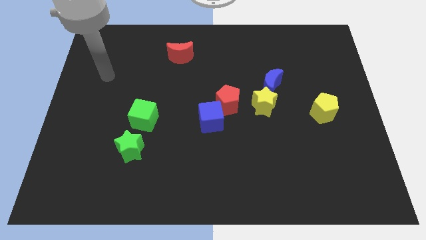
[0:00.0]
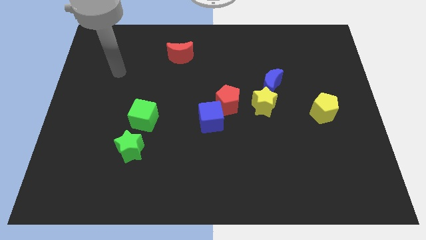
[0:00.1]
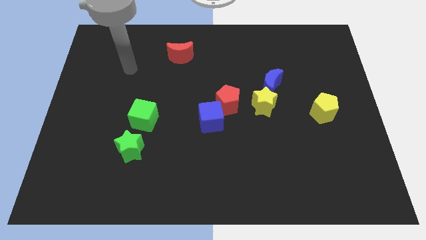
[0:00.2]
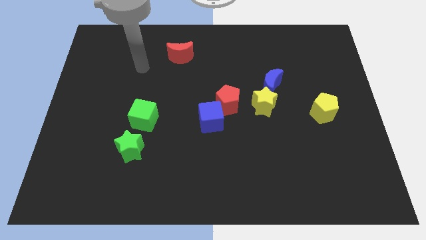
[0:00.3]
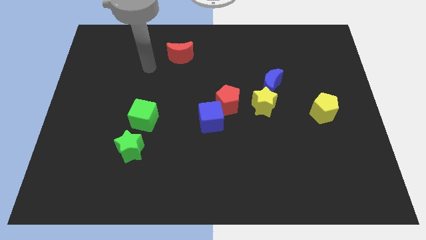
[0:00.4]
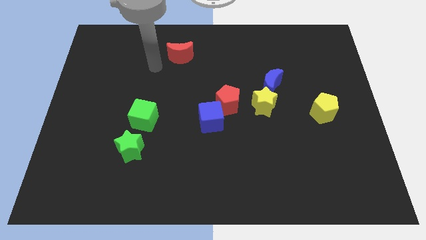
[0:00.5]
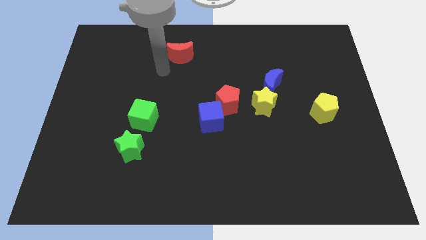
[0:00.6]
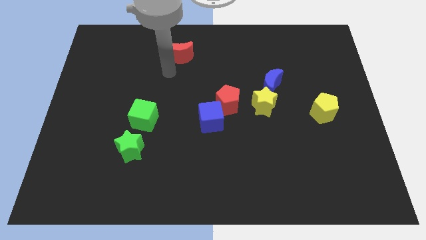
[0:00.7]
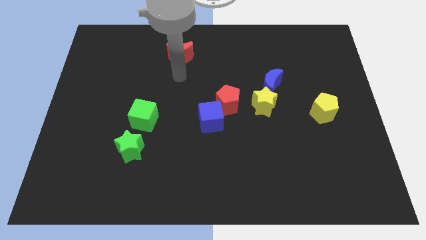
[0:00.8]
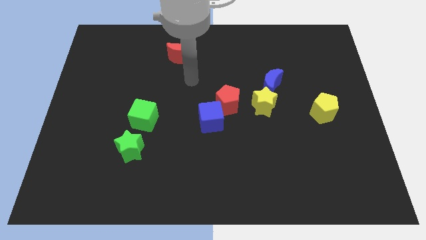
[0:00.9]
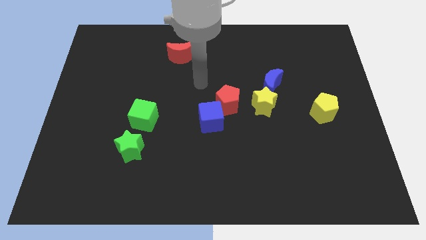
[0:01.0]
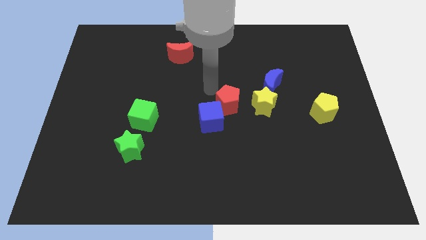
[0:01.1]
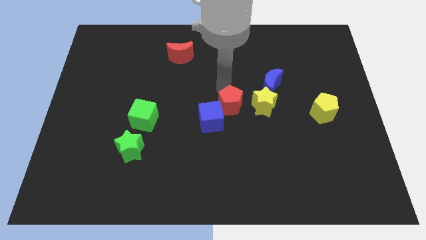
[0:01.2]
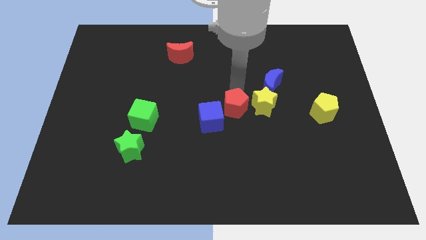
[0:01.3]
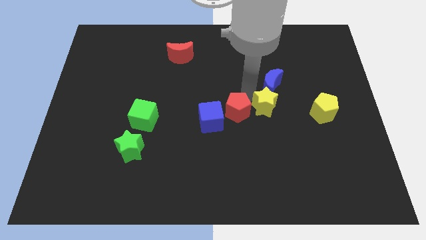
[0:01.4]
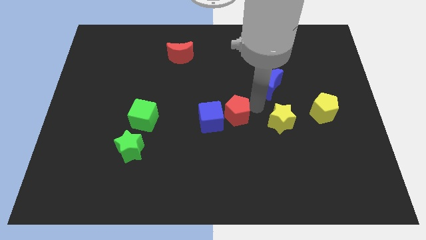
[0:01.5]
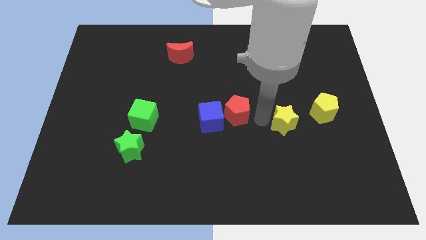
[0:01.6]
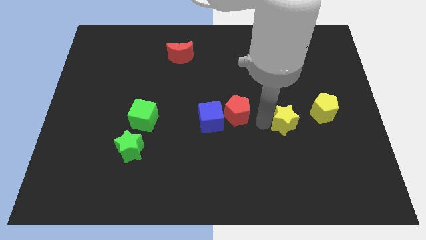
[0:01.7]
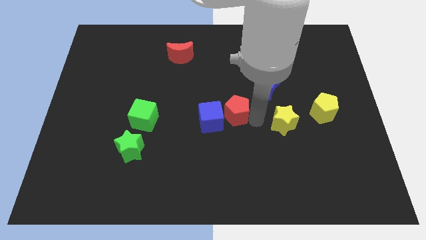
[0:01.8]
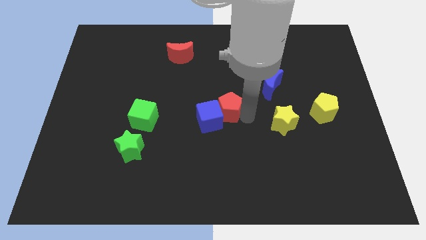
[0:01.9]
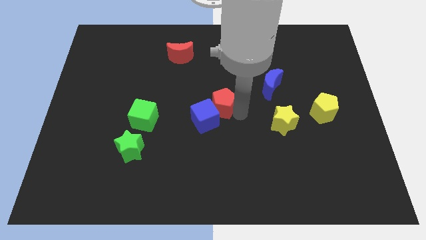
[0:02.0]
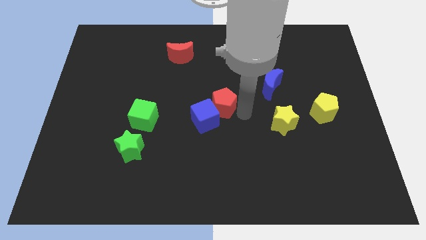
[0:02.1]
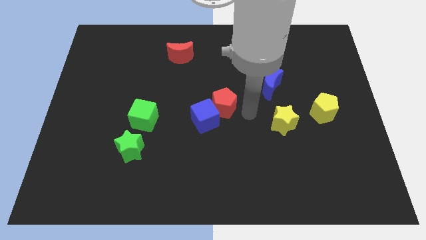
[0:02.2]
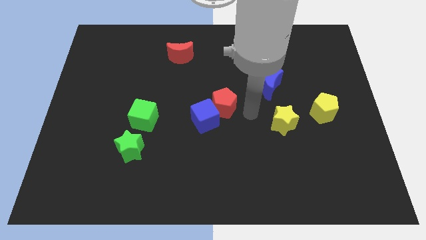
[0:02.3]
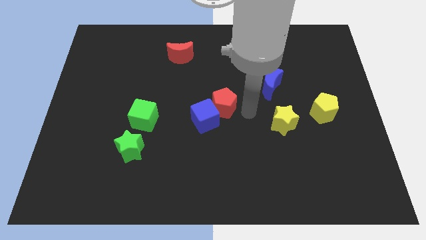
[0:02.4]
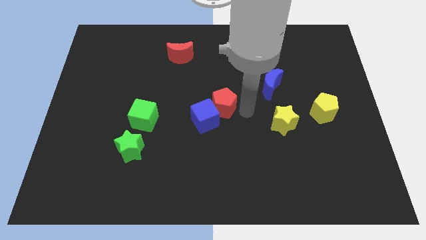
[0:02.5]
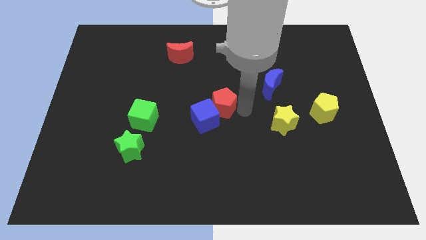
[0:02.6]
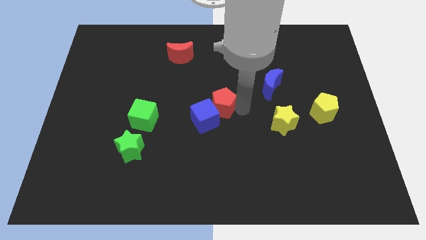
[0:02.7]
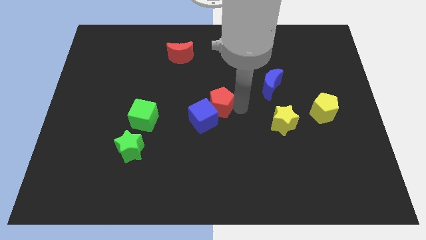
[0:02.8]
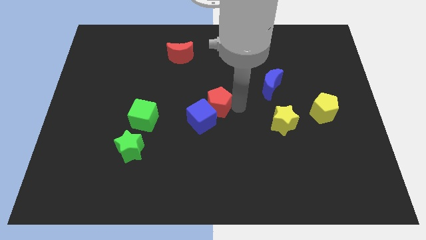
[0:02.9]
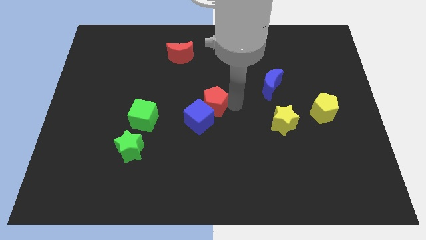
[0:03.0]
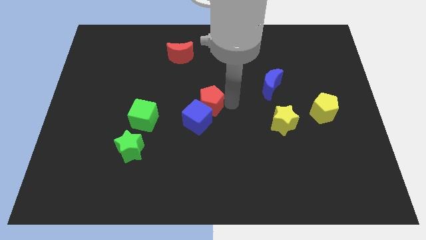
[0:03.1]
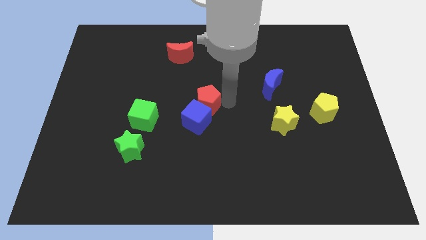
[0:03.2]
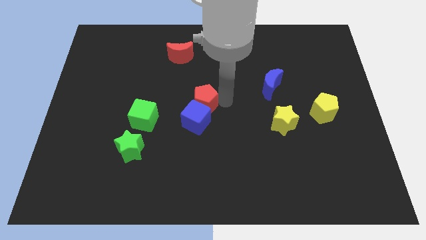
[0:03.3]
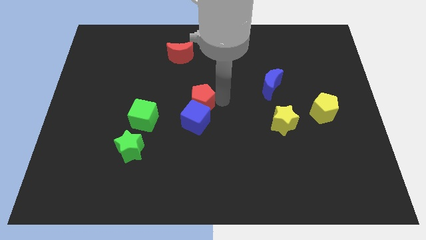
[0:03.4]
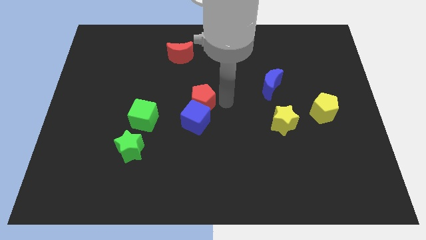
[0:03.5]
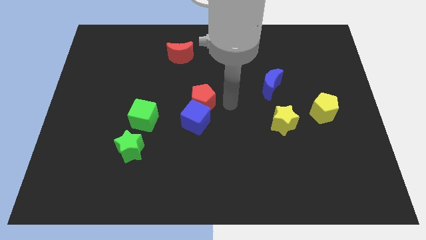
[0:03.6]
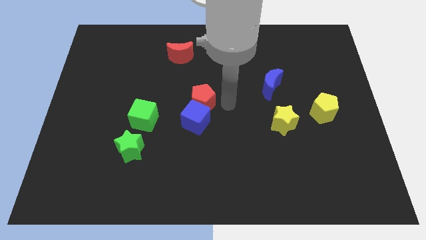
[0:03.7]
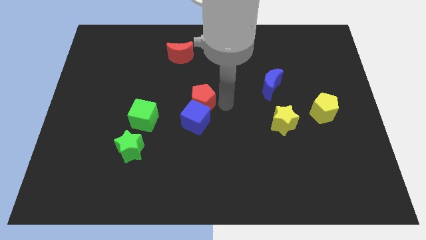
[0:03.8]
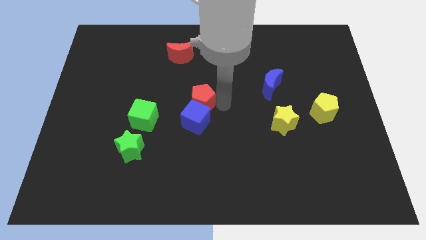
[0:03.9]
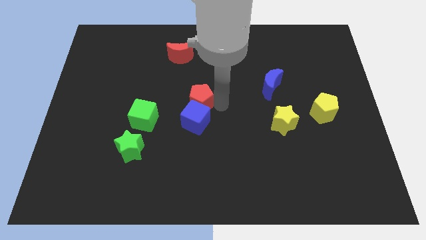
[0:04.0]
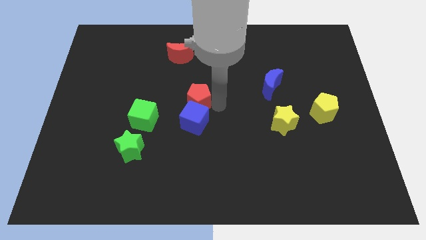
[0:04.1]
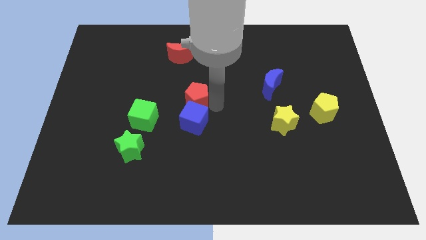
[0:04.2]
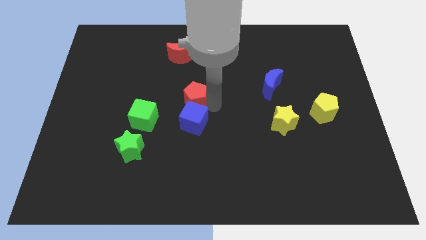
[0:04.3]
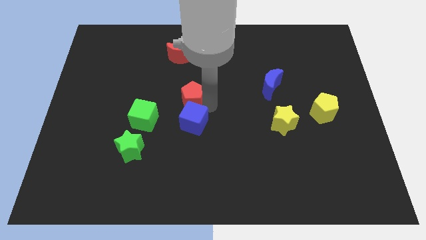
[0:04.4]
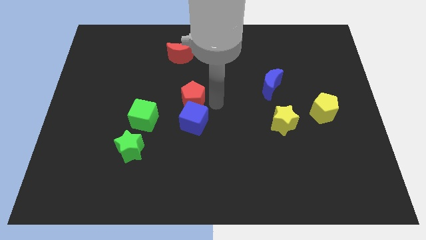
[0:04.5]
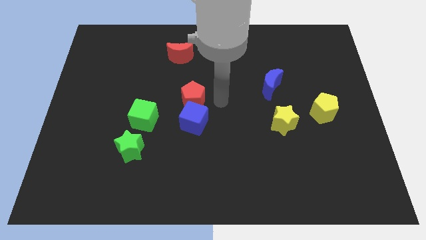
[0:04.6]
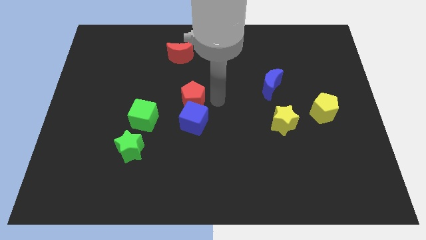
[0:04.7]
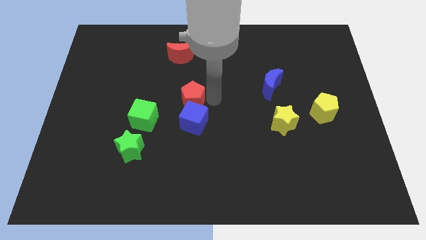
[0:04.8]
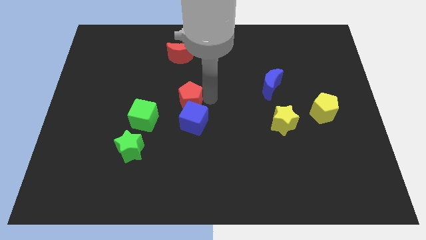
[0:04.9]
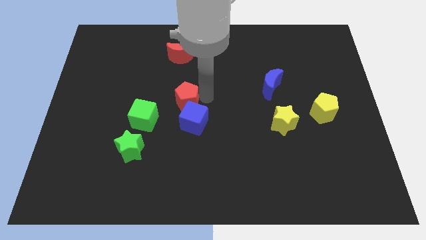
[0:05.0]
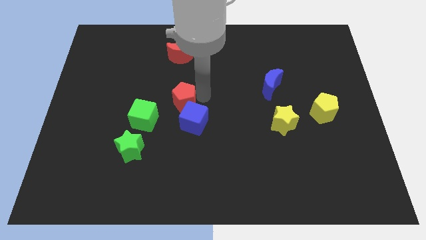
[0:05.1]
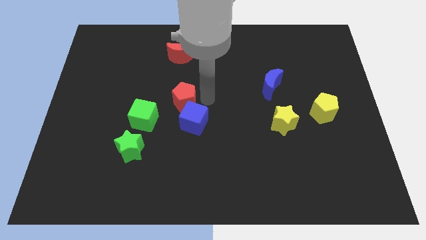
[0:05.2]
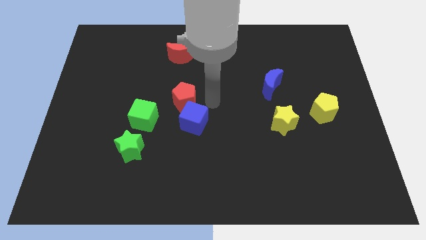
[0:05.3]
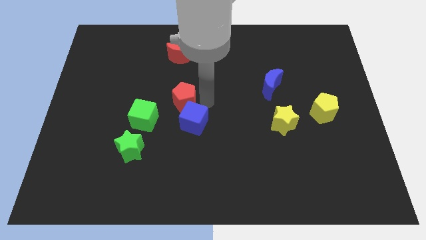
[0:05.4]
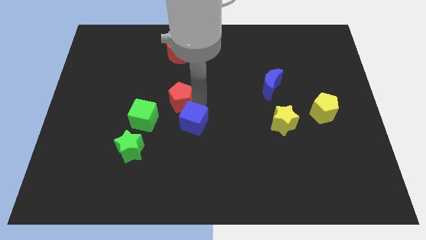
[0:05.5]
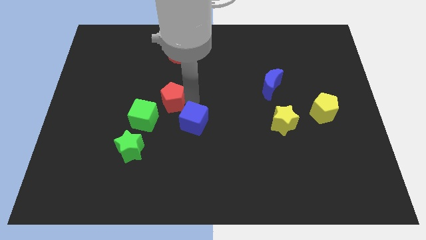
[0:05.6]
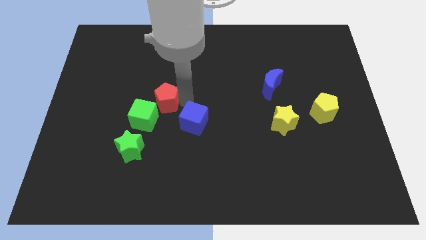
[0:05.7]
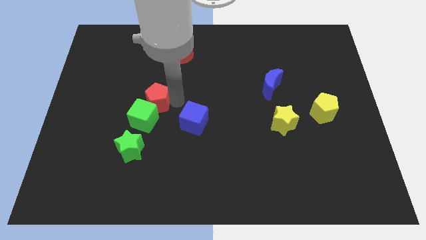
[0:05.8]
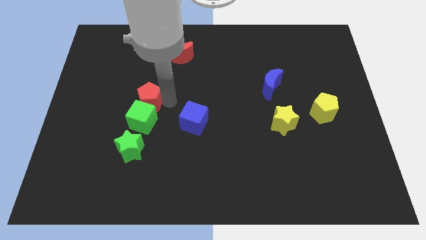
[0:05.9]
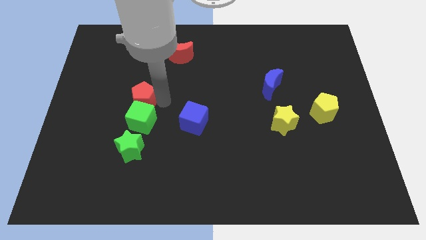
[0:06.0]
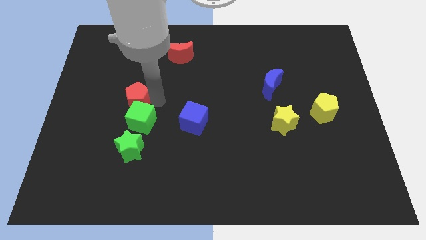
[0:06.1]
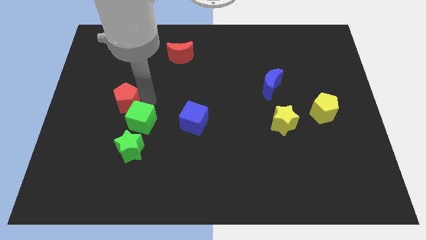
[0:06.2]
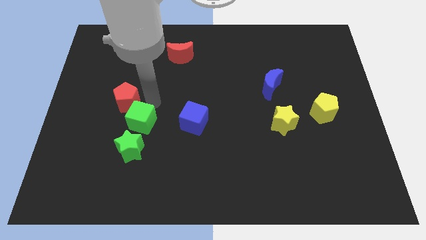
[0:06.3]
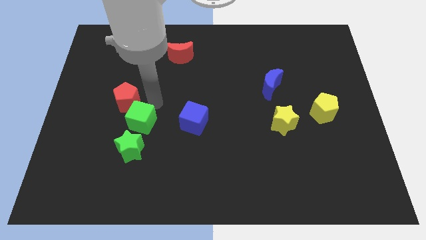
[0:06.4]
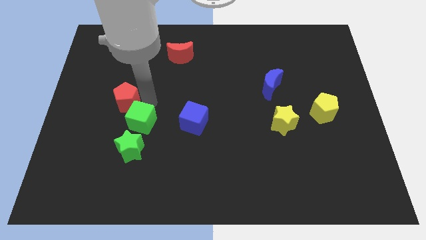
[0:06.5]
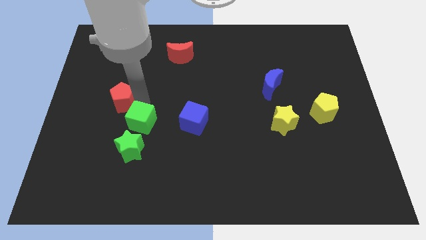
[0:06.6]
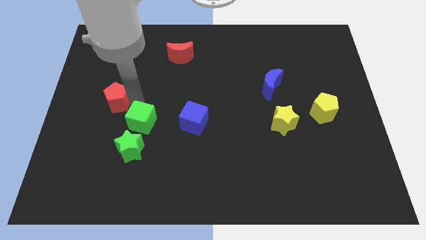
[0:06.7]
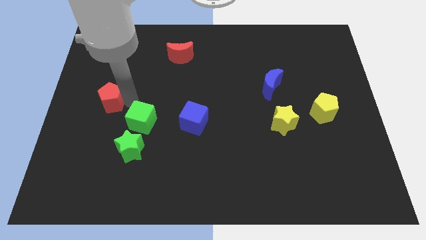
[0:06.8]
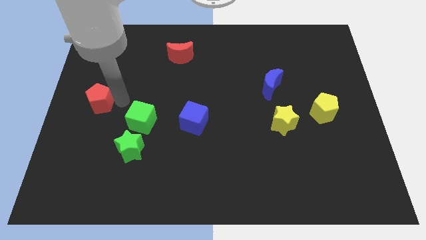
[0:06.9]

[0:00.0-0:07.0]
move the red pentagon to the center left
